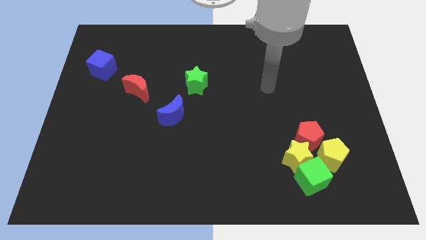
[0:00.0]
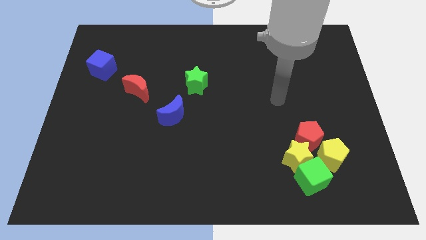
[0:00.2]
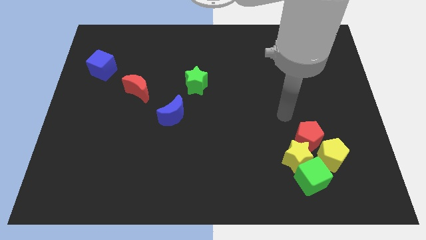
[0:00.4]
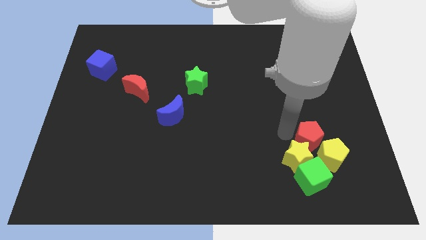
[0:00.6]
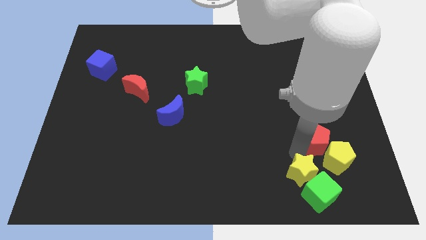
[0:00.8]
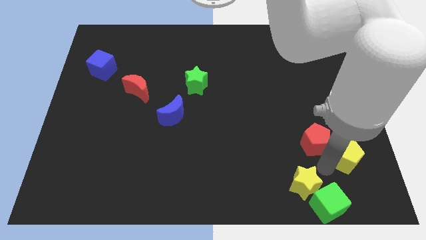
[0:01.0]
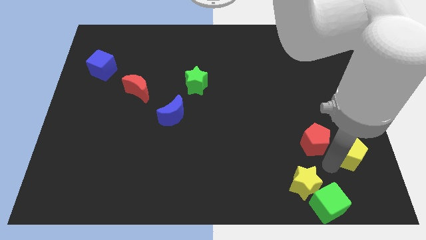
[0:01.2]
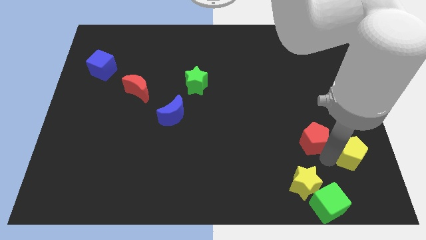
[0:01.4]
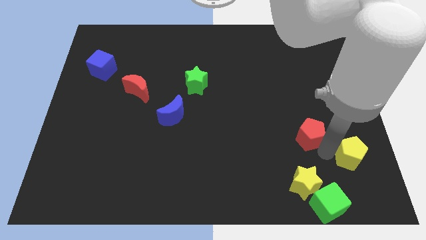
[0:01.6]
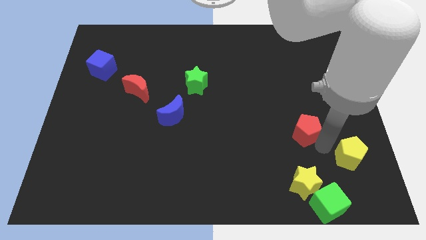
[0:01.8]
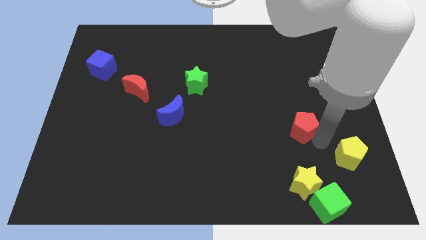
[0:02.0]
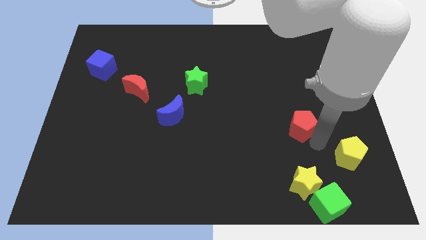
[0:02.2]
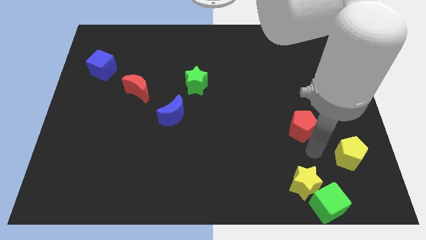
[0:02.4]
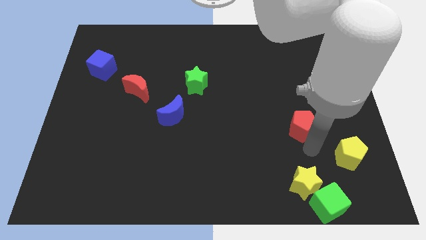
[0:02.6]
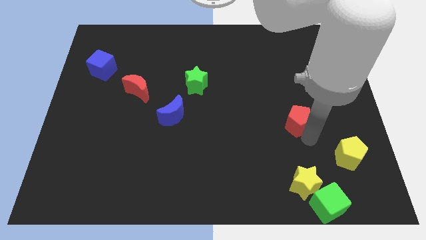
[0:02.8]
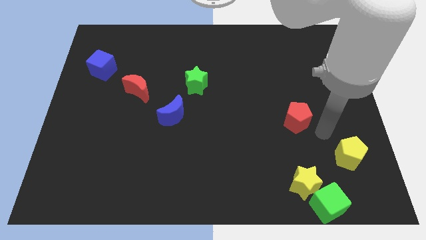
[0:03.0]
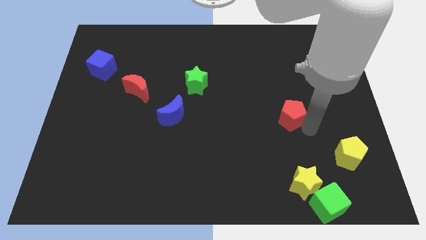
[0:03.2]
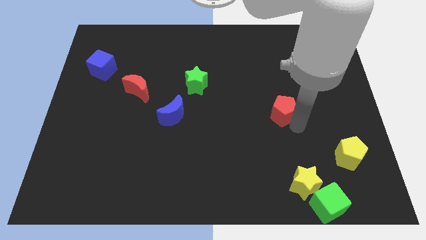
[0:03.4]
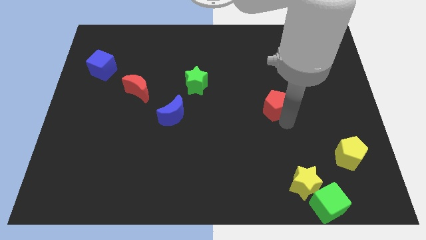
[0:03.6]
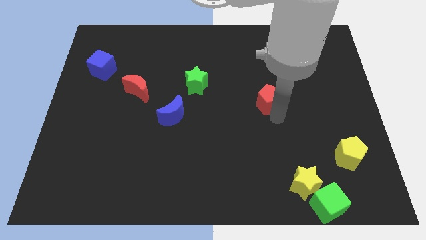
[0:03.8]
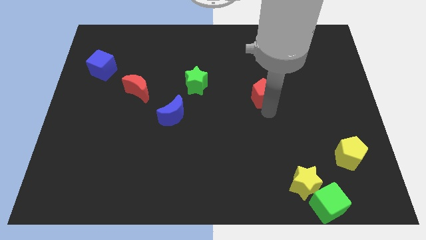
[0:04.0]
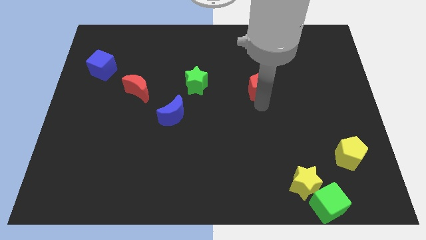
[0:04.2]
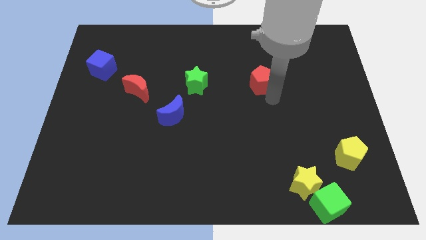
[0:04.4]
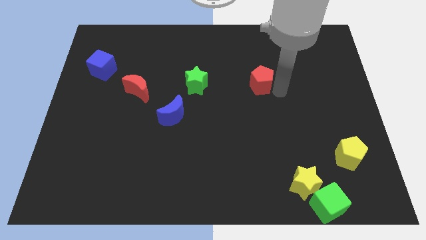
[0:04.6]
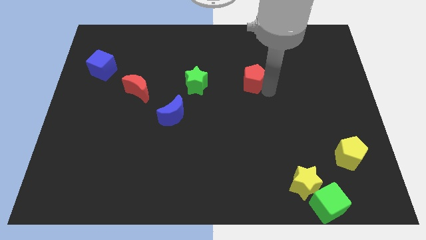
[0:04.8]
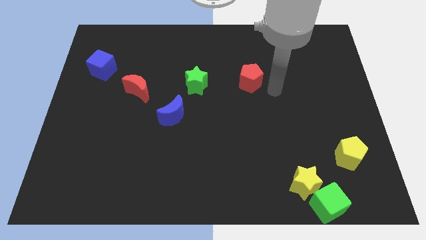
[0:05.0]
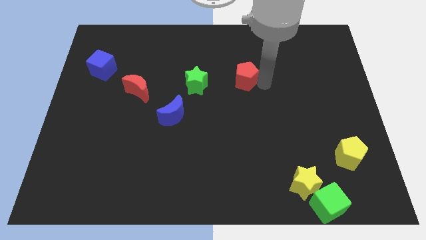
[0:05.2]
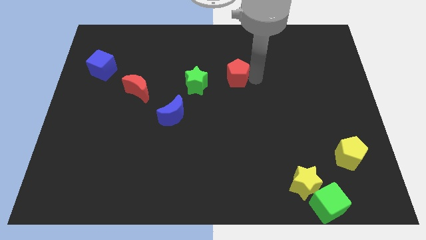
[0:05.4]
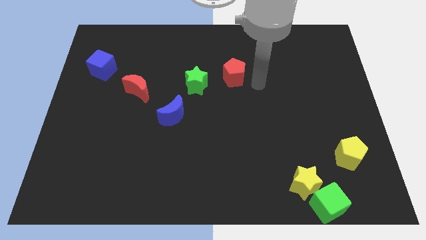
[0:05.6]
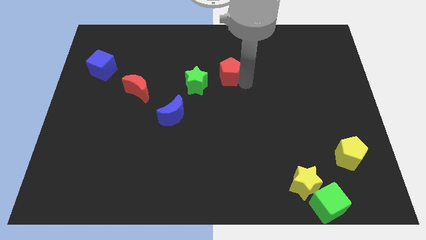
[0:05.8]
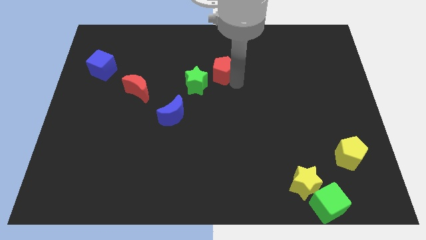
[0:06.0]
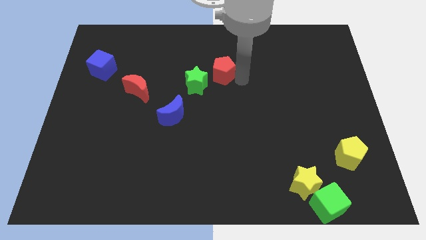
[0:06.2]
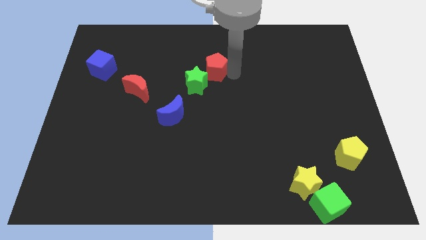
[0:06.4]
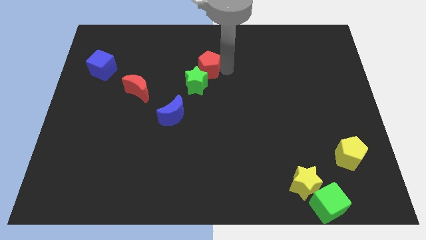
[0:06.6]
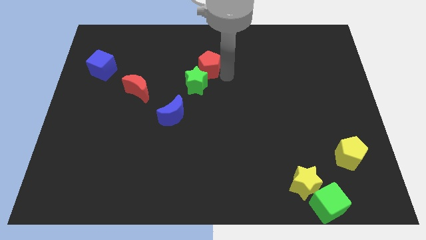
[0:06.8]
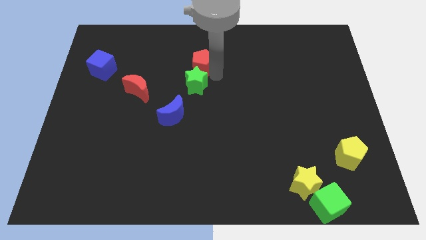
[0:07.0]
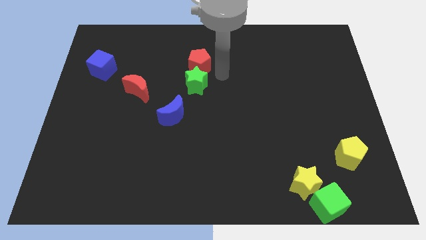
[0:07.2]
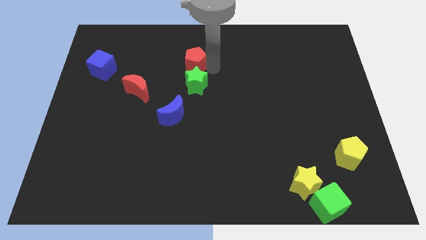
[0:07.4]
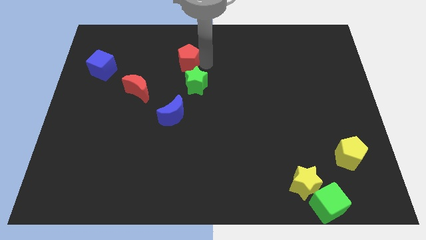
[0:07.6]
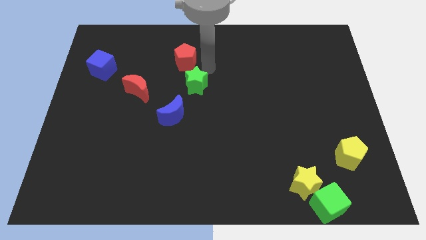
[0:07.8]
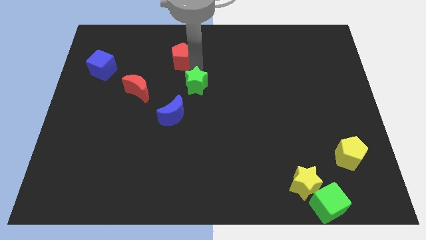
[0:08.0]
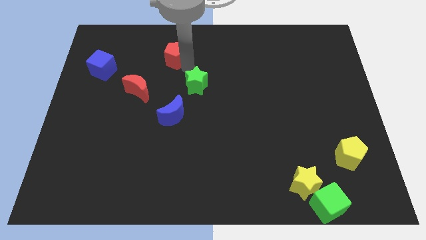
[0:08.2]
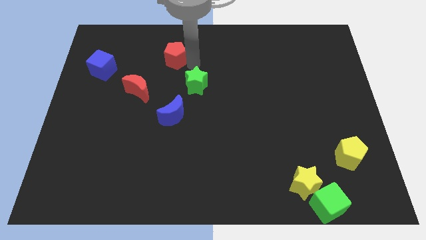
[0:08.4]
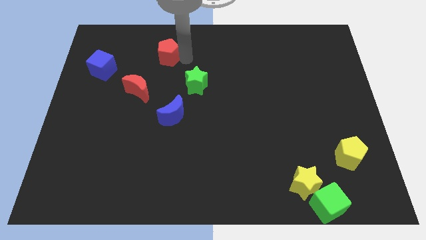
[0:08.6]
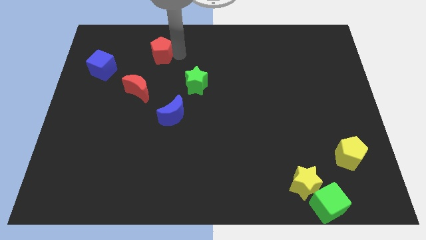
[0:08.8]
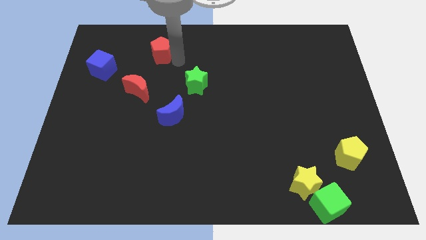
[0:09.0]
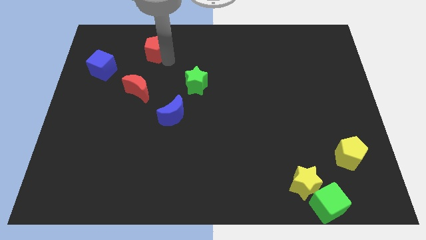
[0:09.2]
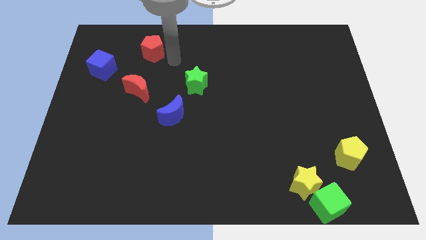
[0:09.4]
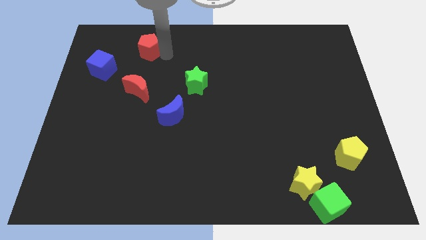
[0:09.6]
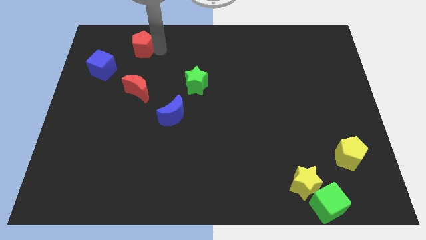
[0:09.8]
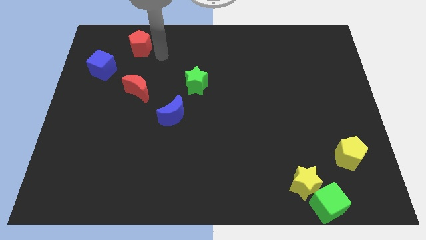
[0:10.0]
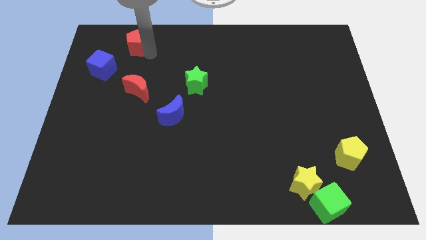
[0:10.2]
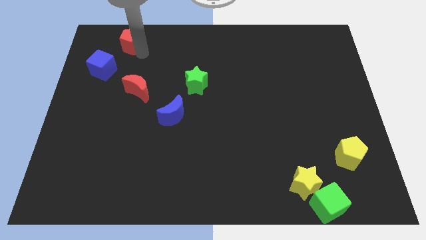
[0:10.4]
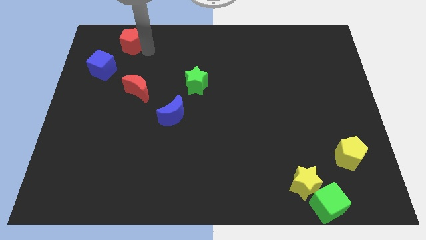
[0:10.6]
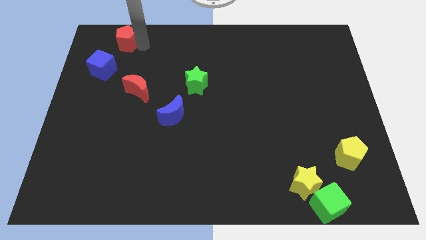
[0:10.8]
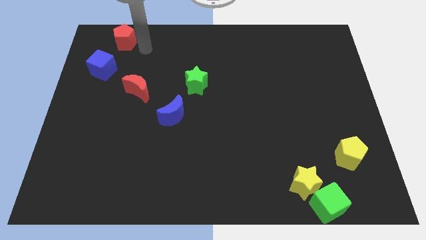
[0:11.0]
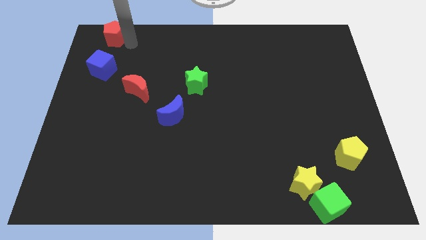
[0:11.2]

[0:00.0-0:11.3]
move the red pentagon to the upper left corner

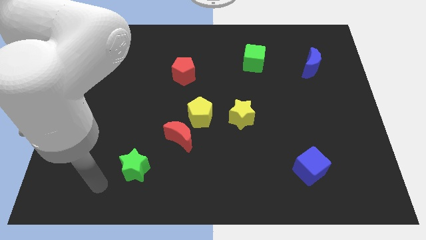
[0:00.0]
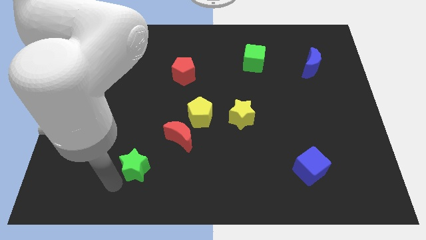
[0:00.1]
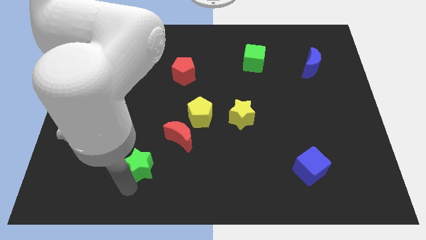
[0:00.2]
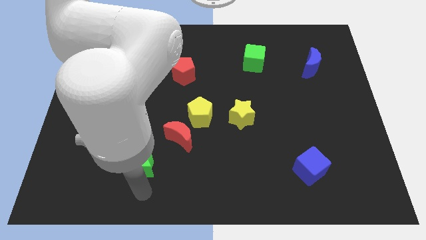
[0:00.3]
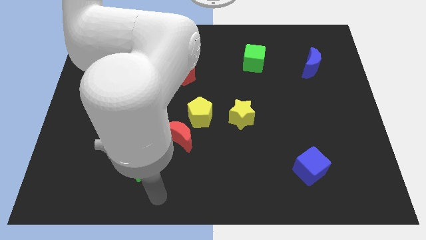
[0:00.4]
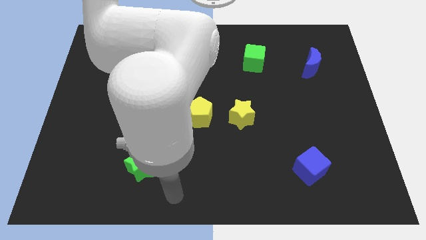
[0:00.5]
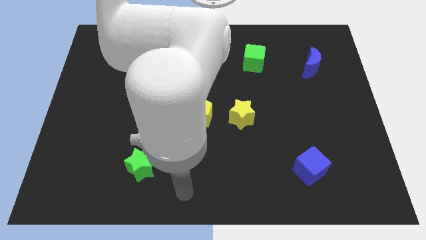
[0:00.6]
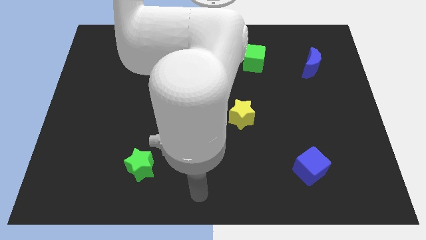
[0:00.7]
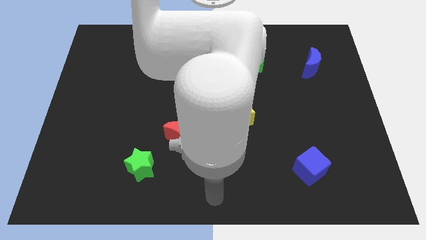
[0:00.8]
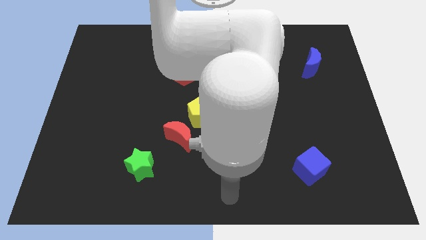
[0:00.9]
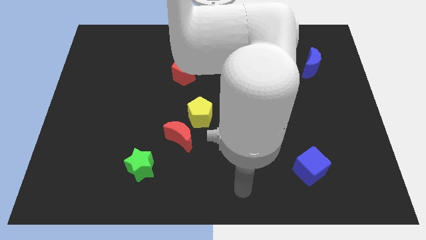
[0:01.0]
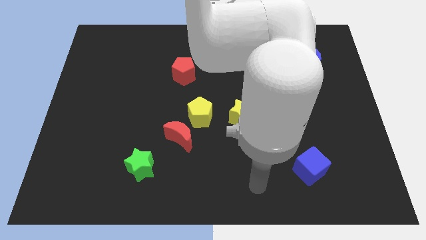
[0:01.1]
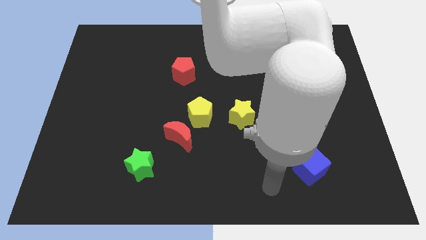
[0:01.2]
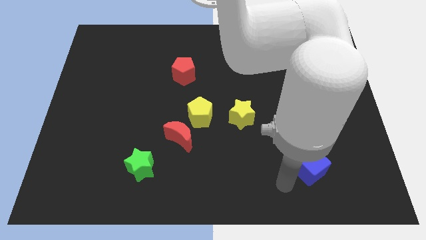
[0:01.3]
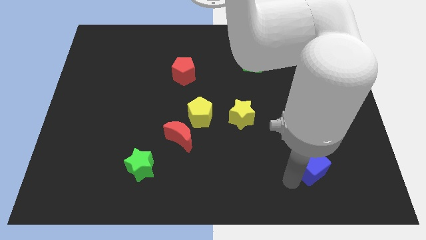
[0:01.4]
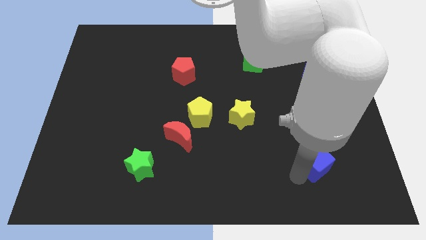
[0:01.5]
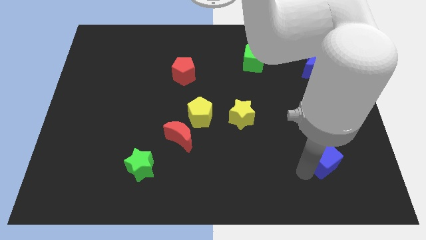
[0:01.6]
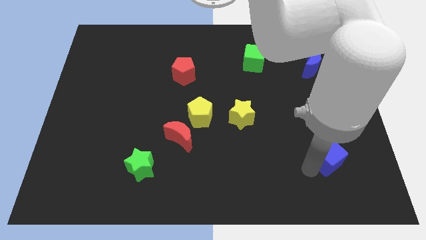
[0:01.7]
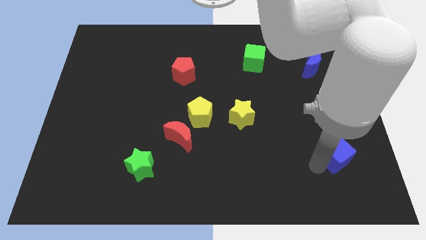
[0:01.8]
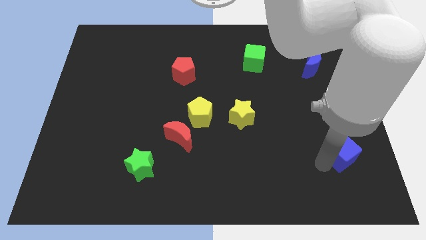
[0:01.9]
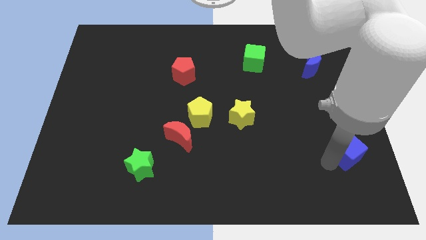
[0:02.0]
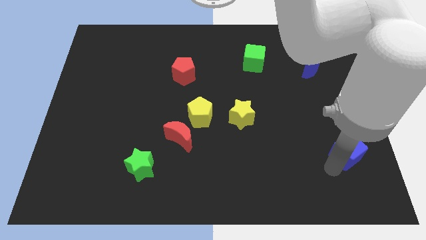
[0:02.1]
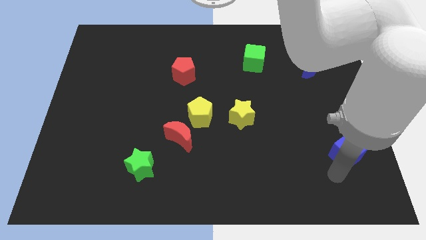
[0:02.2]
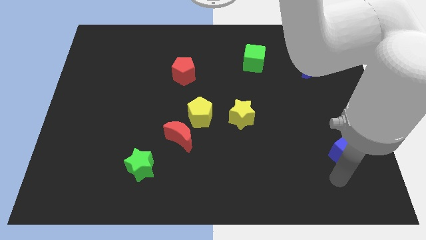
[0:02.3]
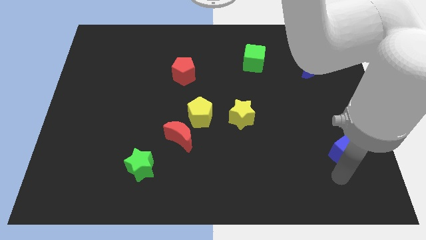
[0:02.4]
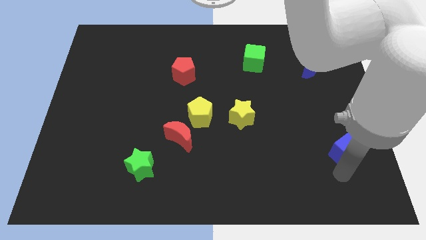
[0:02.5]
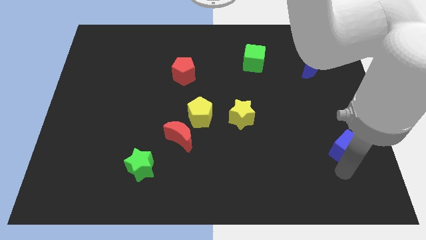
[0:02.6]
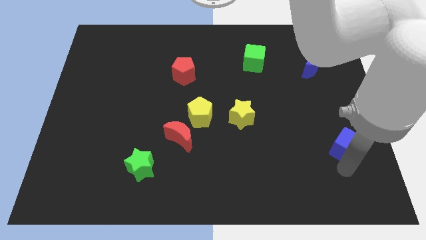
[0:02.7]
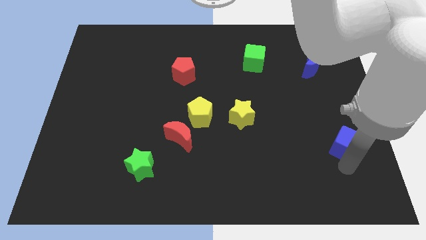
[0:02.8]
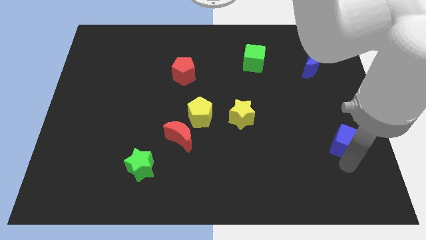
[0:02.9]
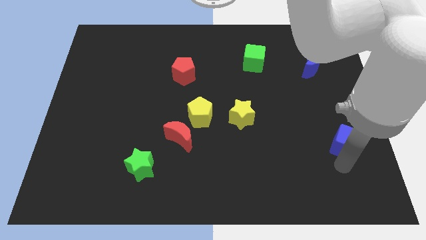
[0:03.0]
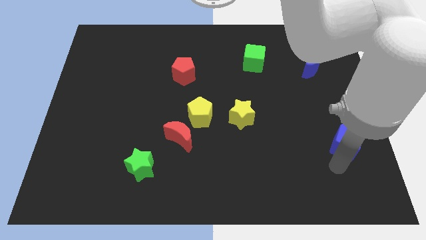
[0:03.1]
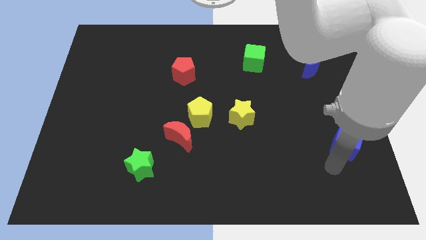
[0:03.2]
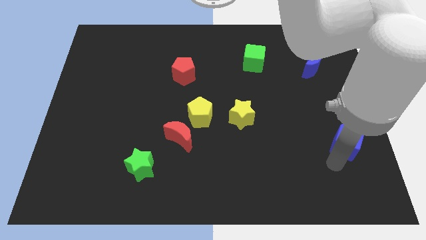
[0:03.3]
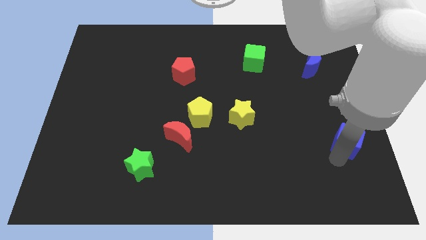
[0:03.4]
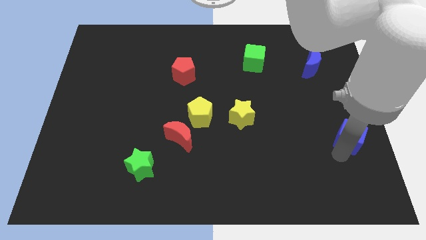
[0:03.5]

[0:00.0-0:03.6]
slide the blue cube to the right side of the board
